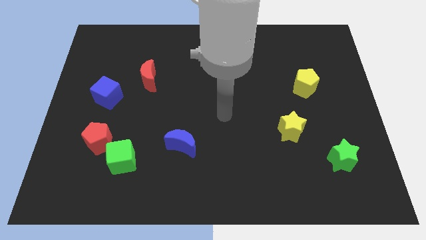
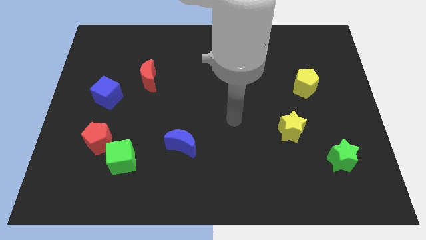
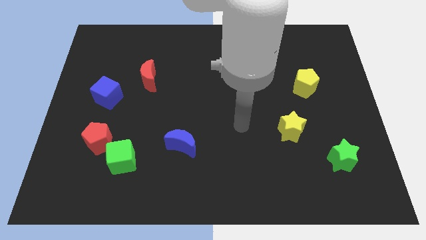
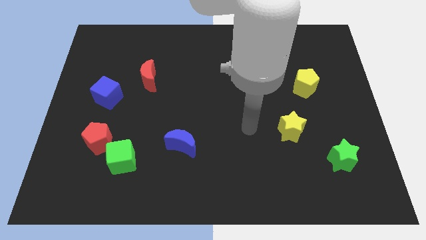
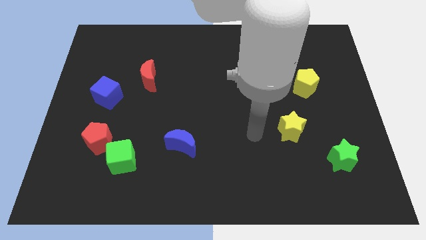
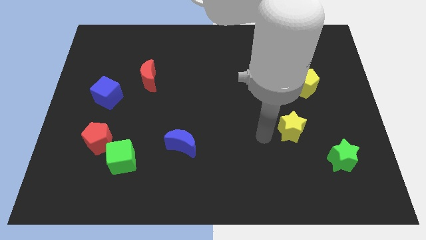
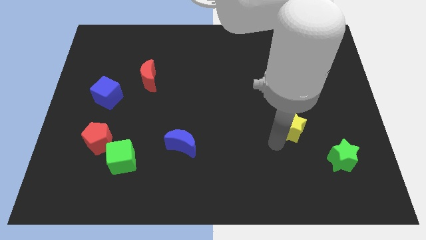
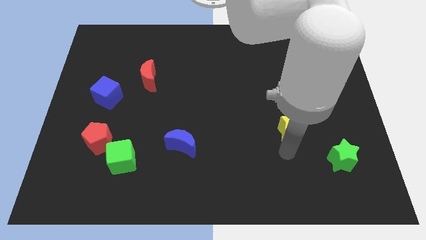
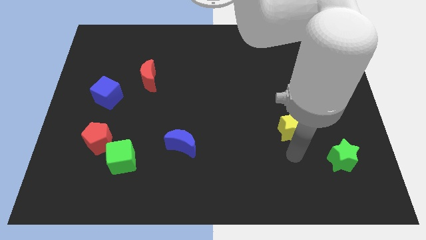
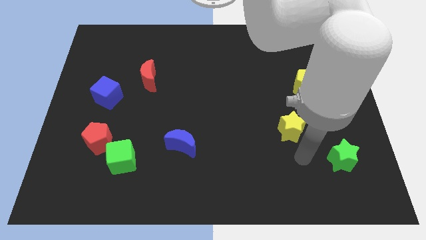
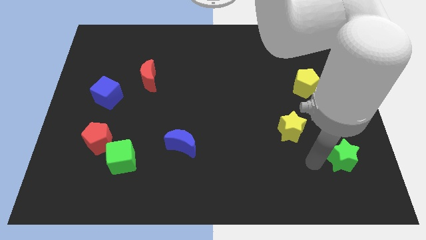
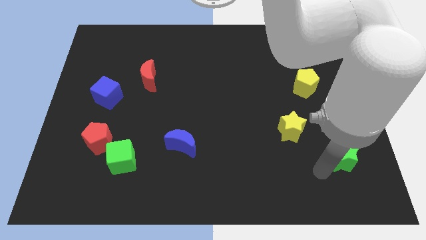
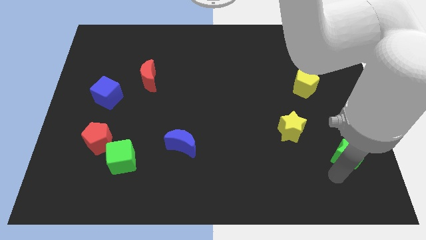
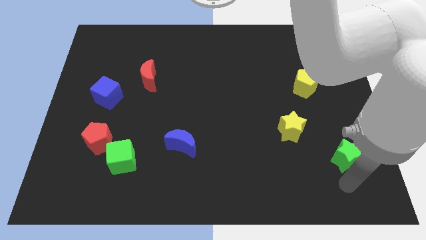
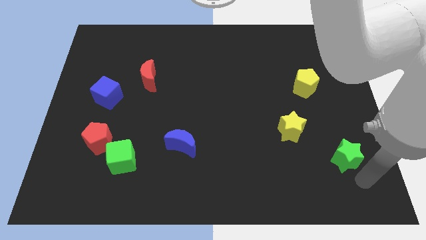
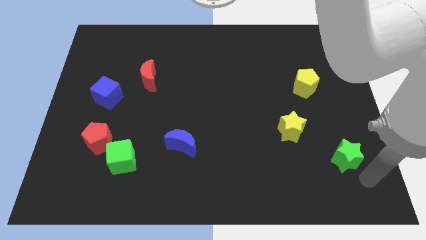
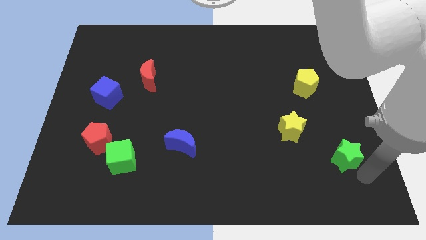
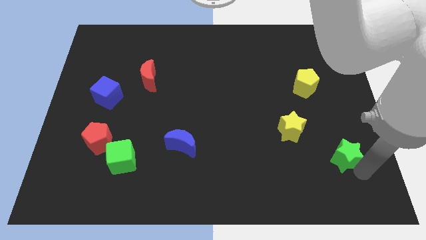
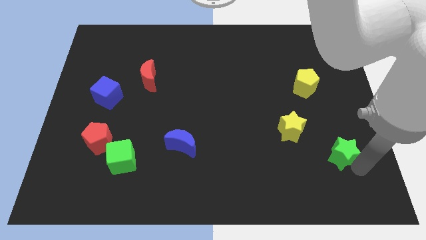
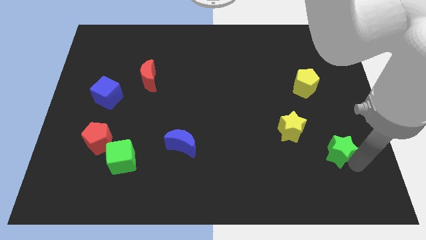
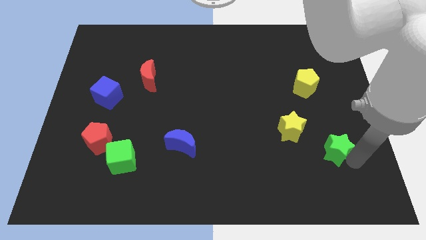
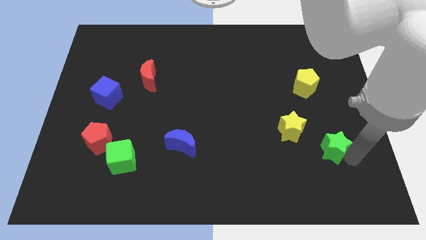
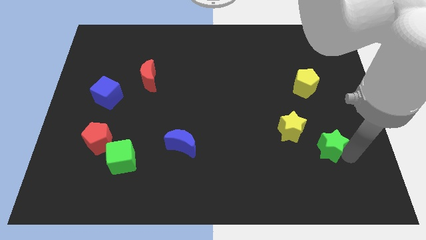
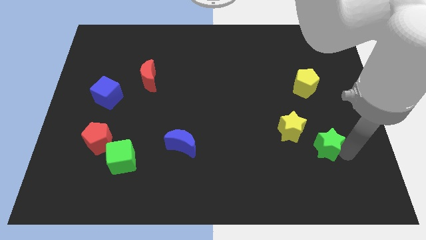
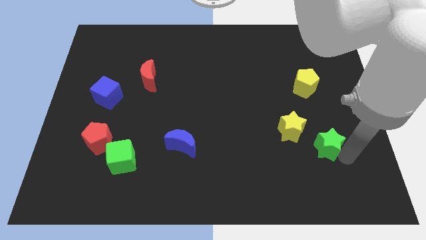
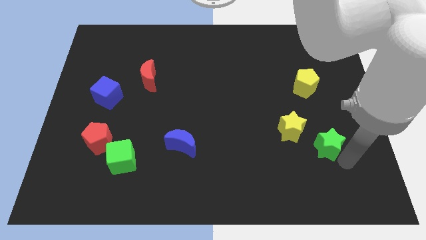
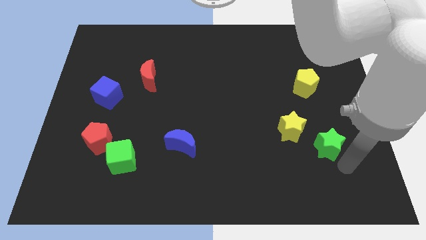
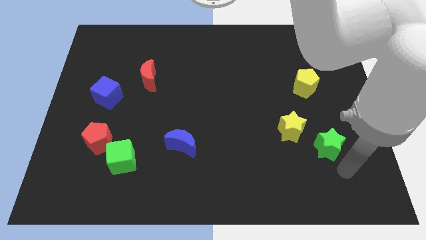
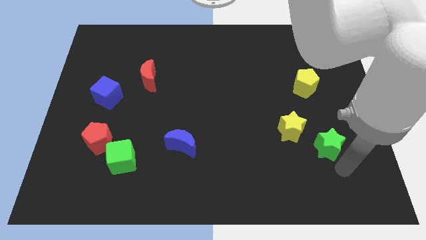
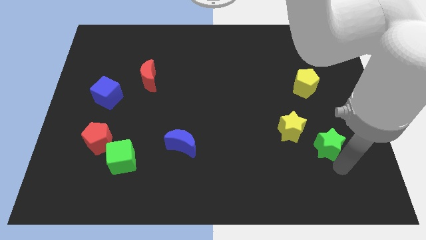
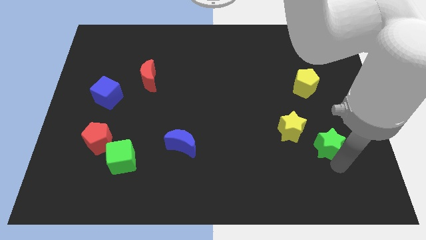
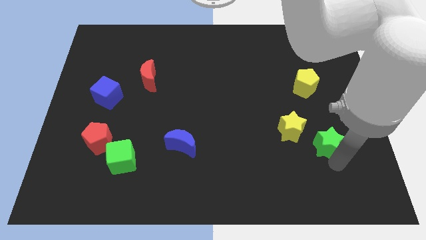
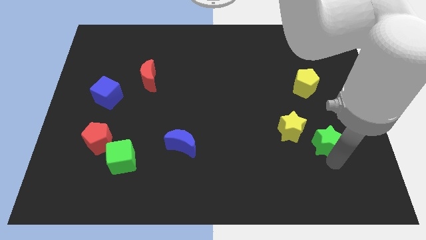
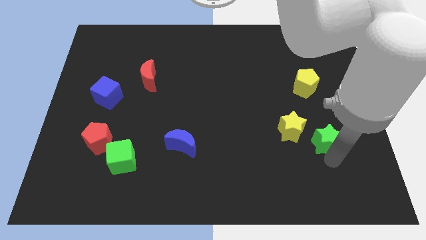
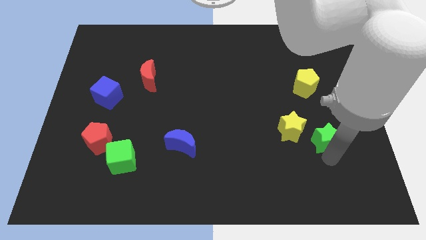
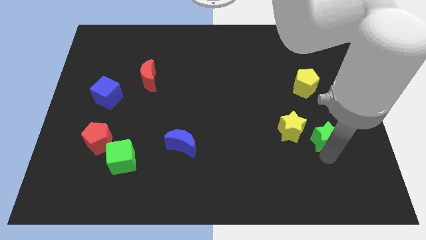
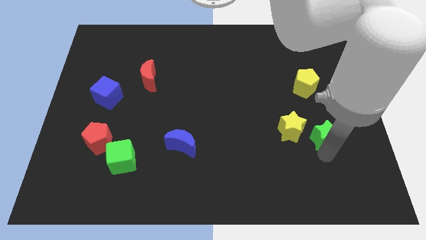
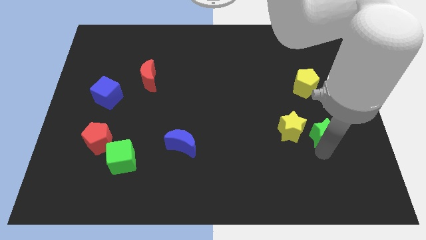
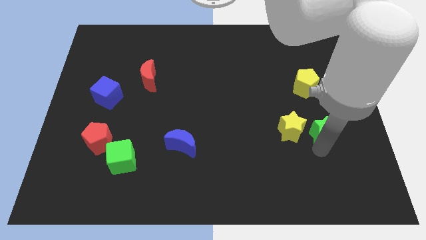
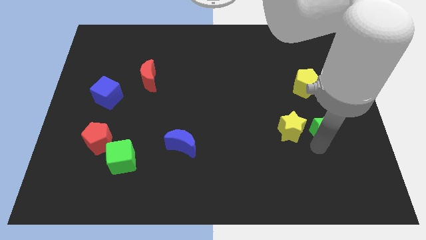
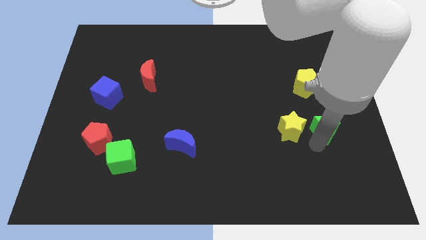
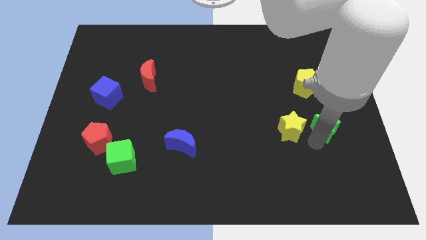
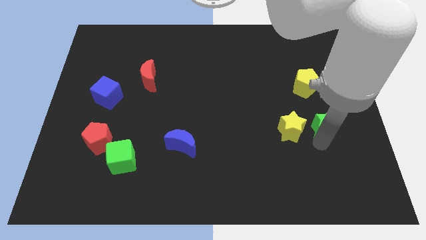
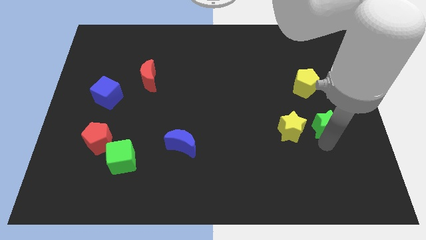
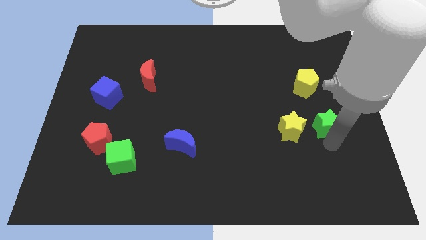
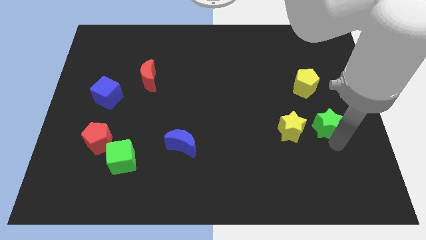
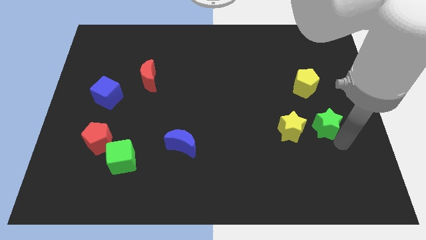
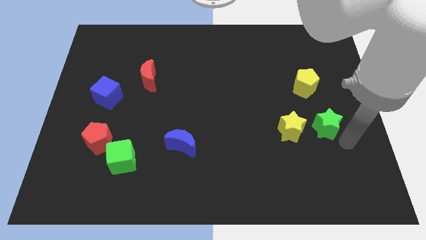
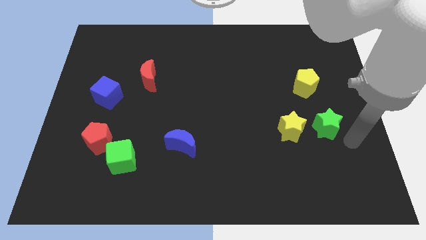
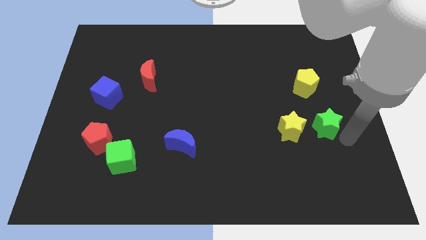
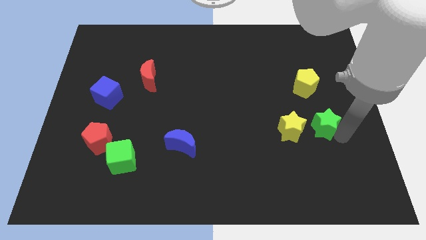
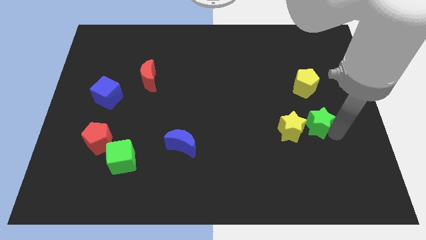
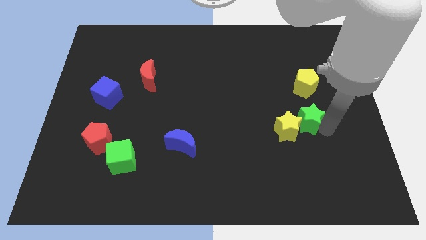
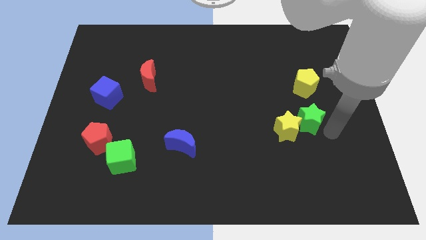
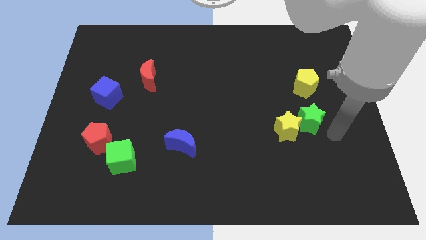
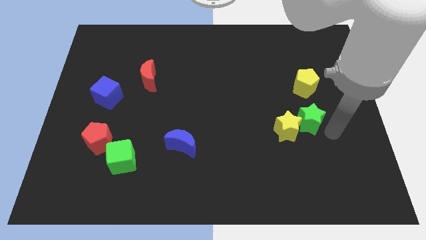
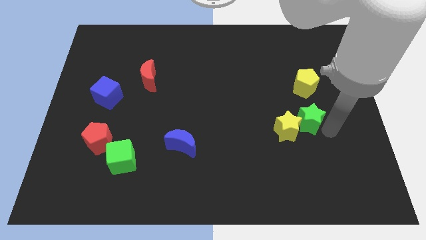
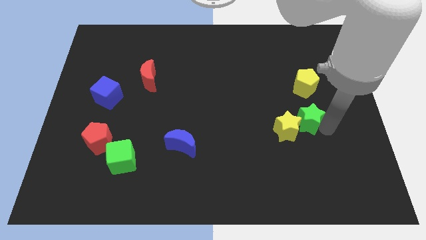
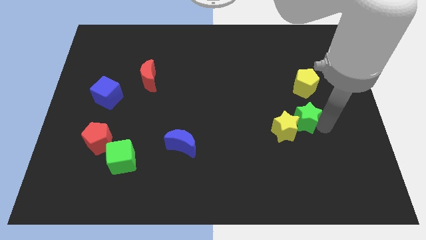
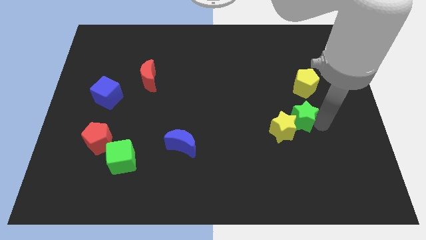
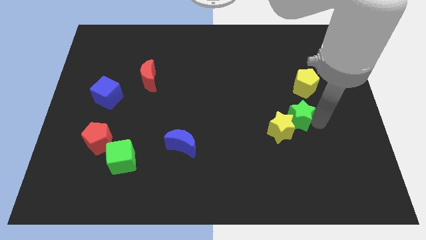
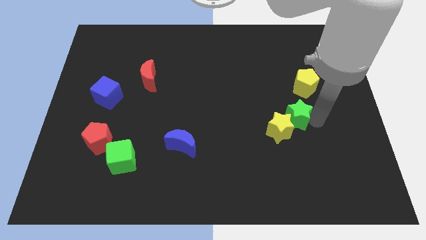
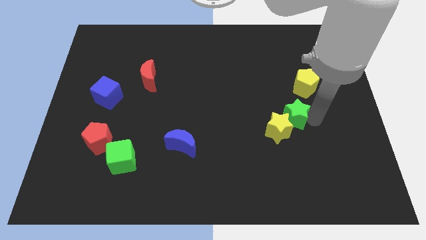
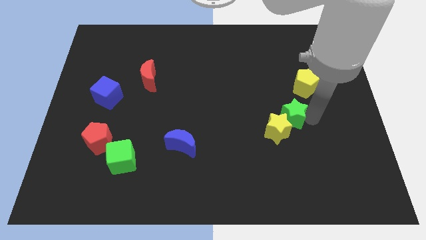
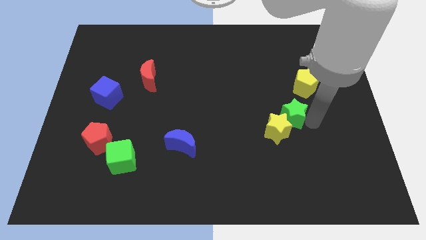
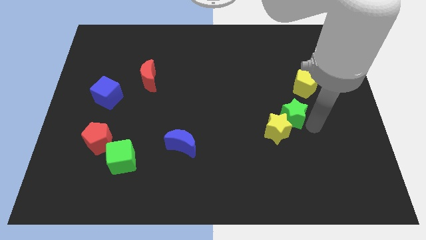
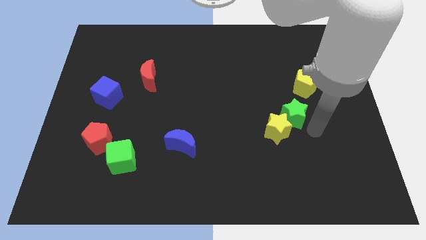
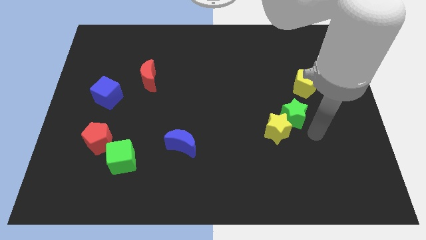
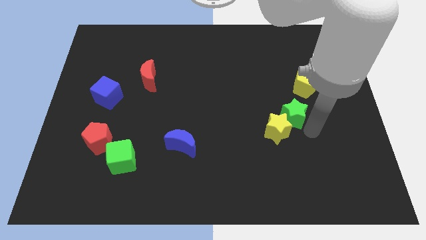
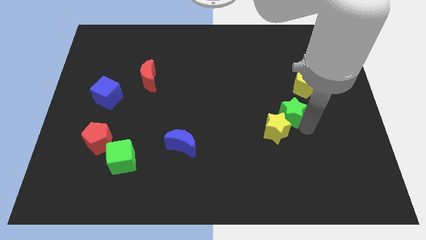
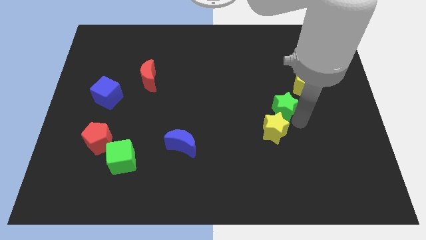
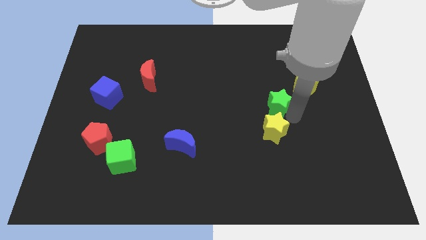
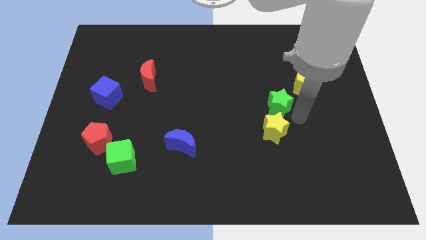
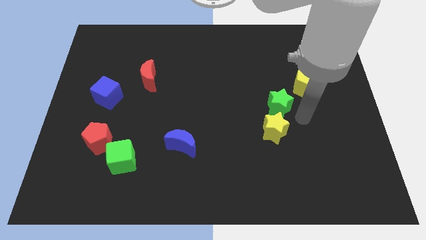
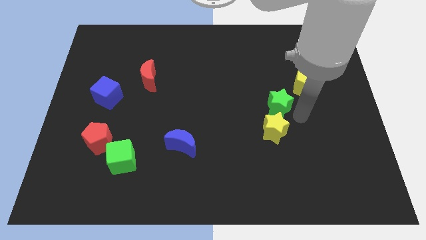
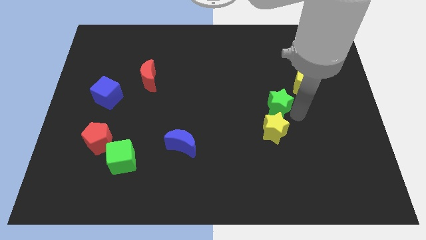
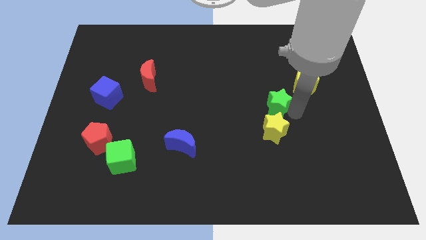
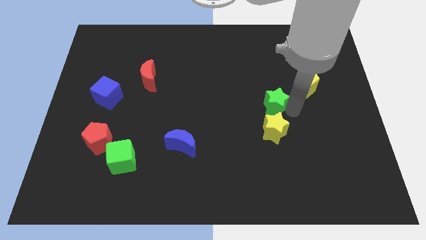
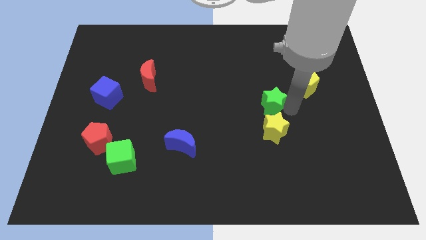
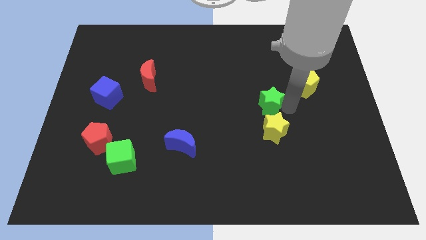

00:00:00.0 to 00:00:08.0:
slide the green star upwards and then left
